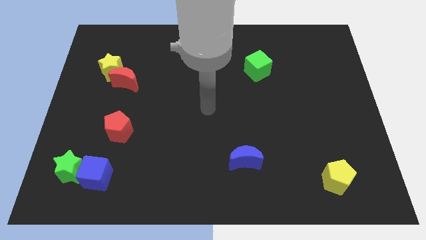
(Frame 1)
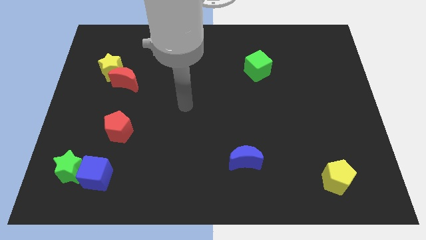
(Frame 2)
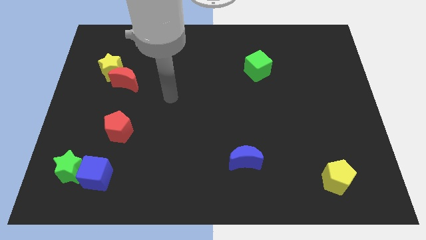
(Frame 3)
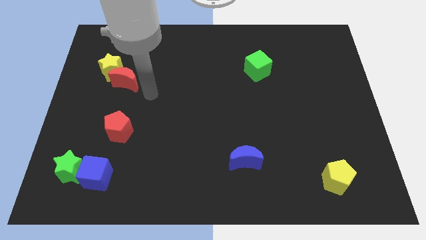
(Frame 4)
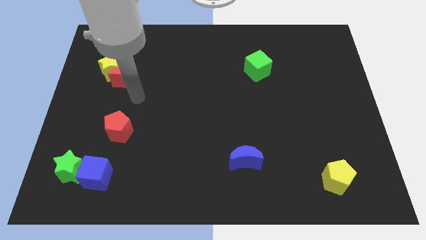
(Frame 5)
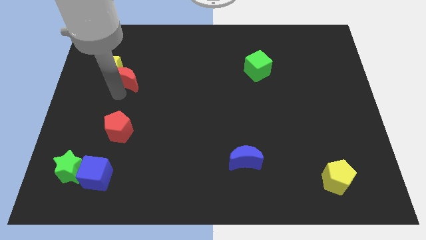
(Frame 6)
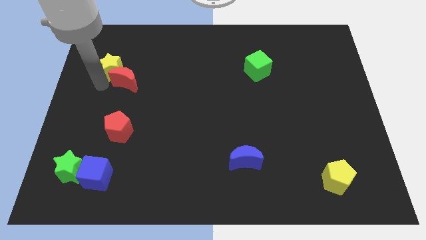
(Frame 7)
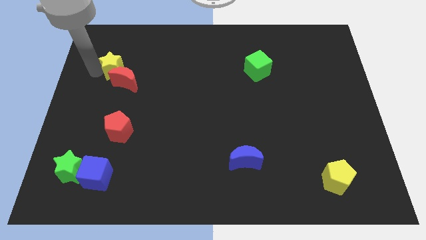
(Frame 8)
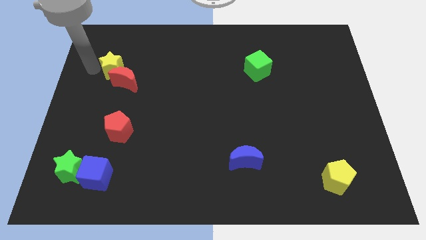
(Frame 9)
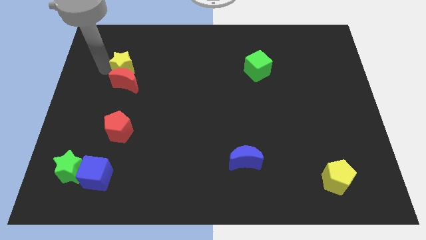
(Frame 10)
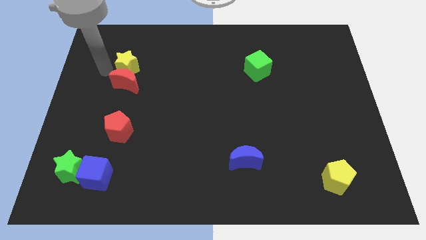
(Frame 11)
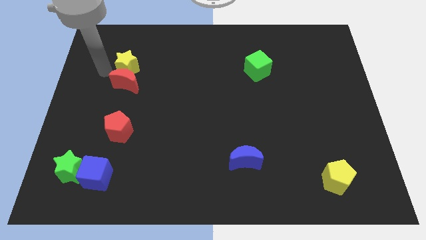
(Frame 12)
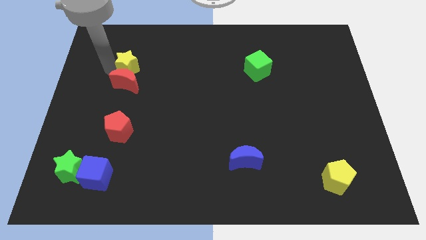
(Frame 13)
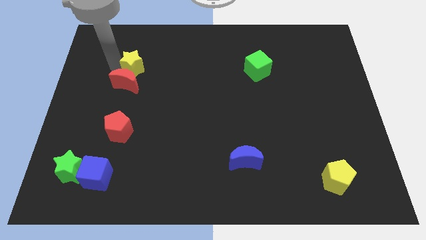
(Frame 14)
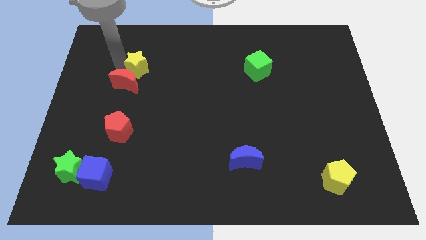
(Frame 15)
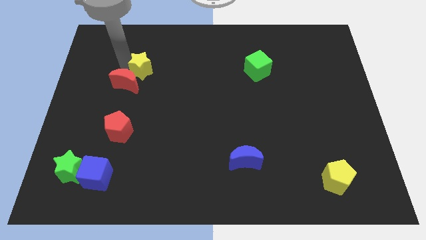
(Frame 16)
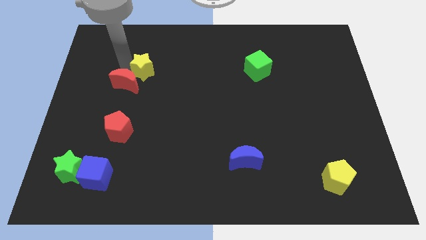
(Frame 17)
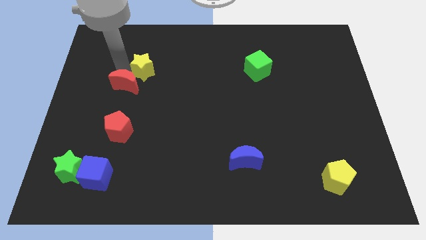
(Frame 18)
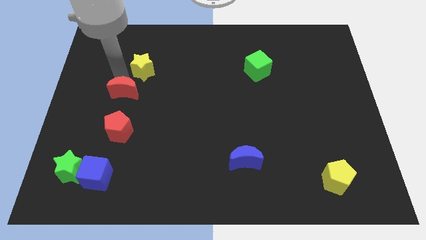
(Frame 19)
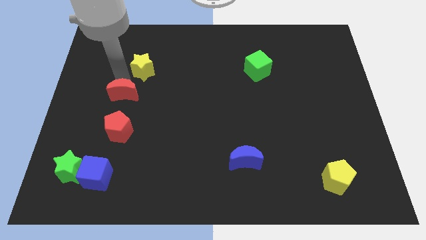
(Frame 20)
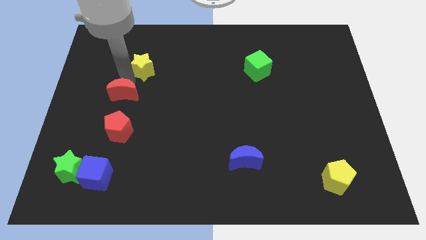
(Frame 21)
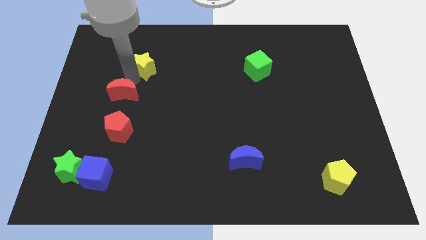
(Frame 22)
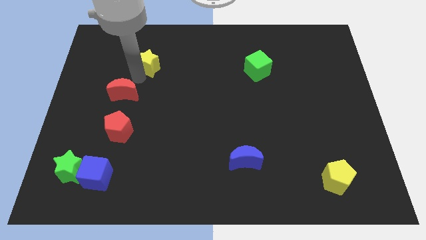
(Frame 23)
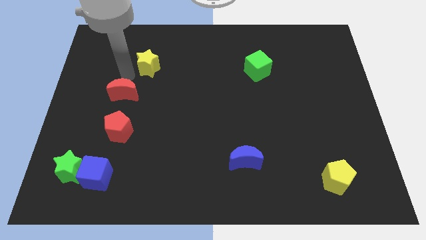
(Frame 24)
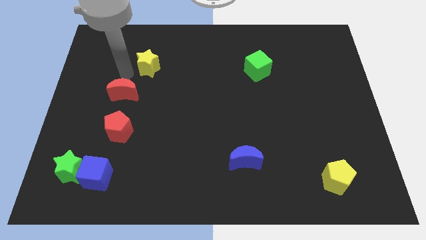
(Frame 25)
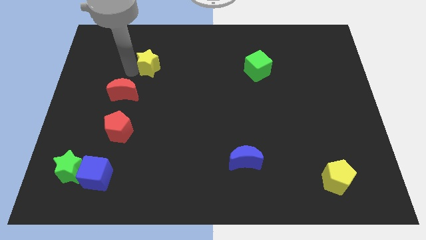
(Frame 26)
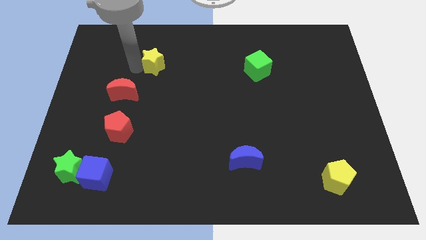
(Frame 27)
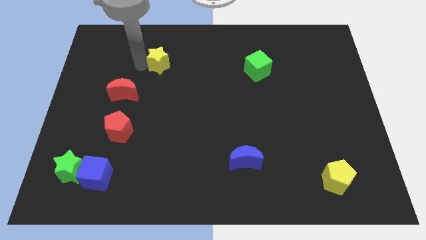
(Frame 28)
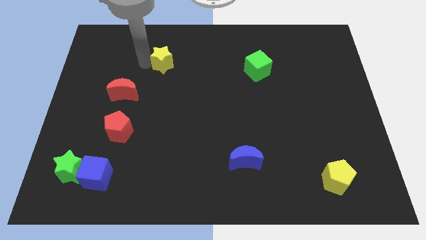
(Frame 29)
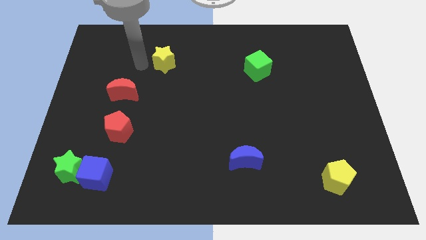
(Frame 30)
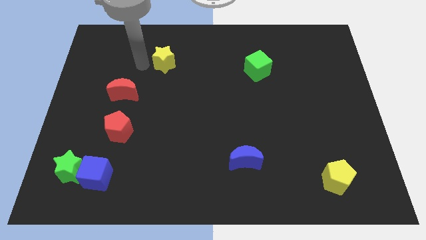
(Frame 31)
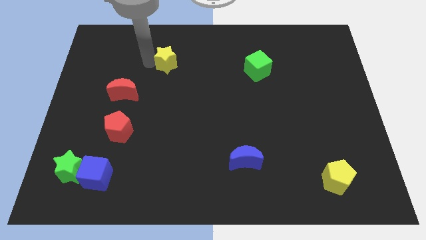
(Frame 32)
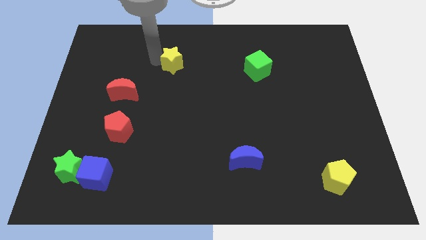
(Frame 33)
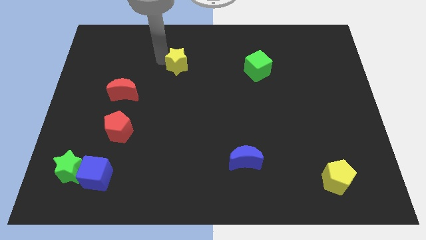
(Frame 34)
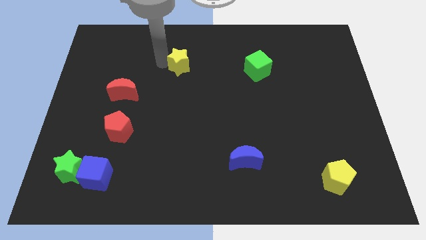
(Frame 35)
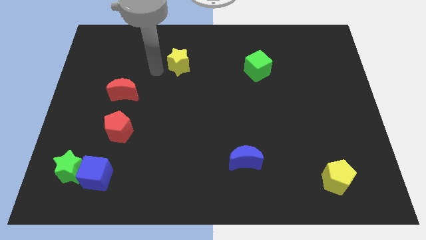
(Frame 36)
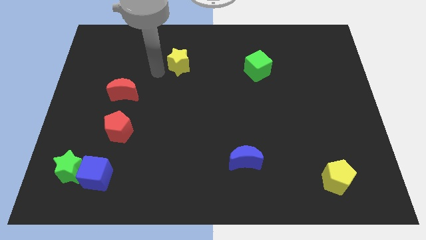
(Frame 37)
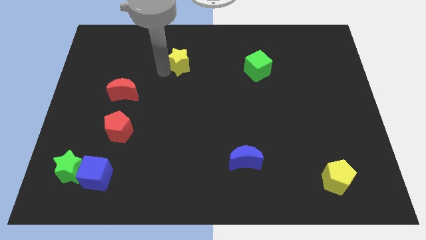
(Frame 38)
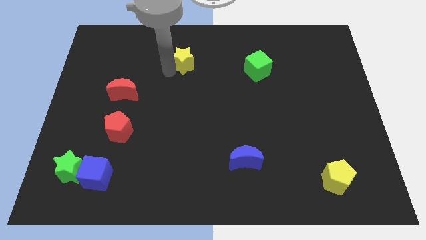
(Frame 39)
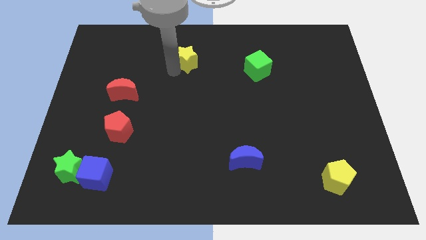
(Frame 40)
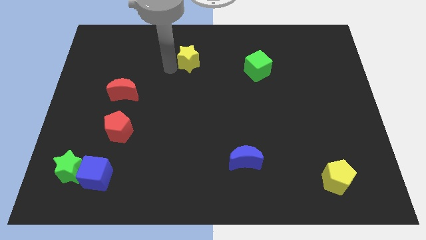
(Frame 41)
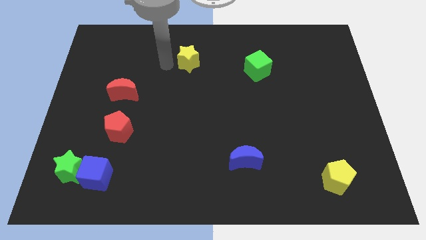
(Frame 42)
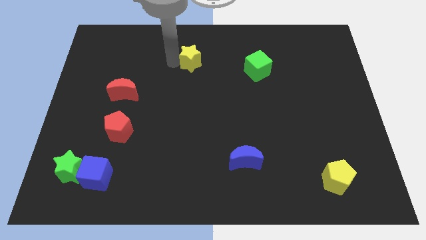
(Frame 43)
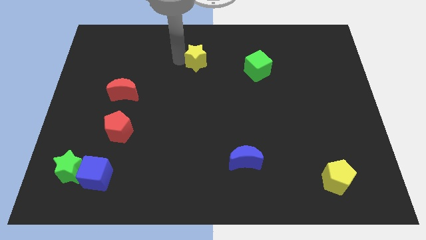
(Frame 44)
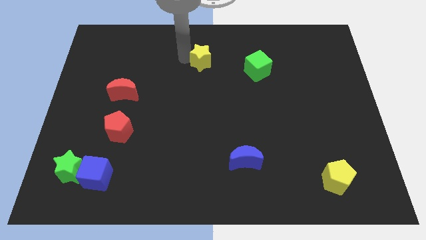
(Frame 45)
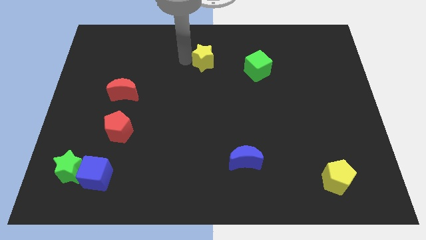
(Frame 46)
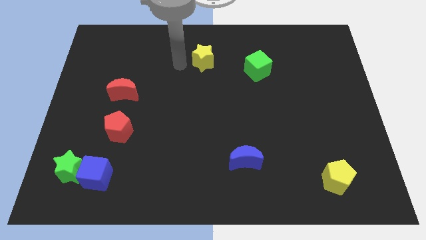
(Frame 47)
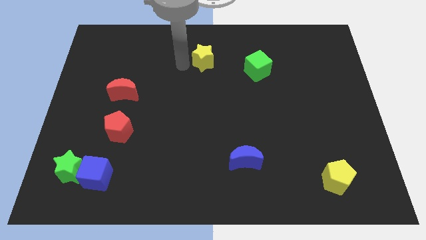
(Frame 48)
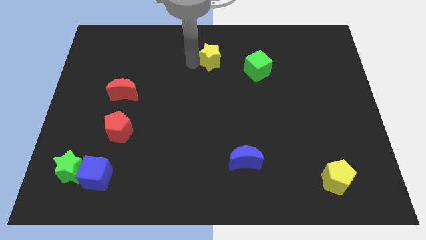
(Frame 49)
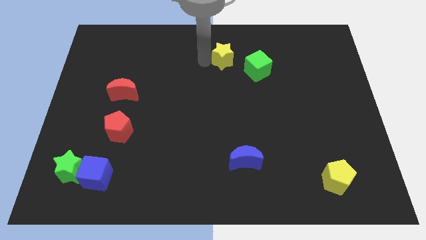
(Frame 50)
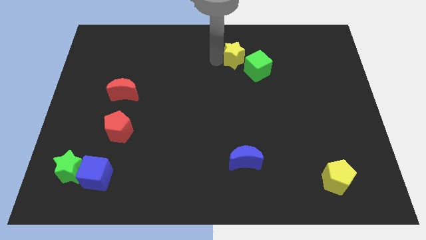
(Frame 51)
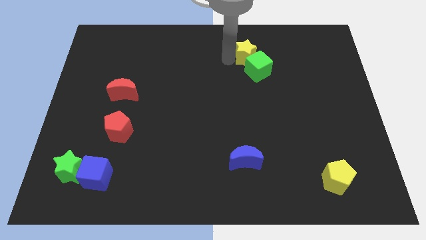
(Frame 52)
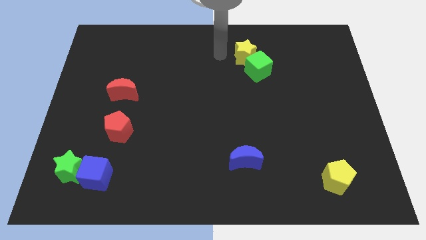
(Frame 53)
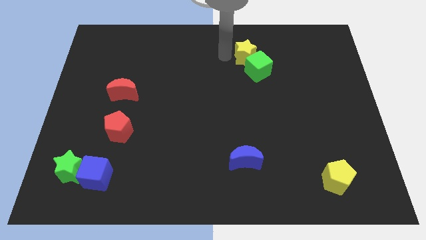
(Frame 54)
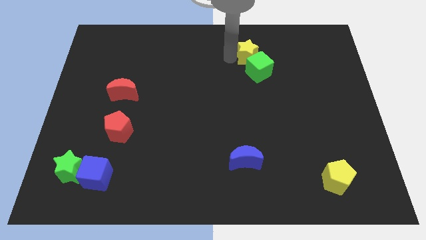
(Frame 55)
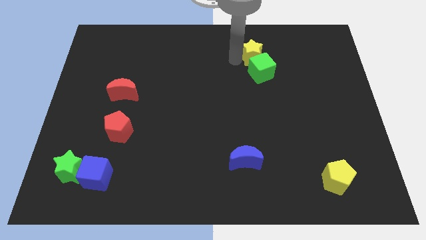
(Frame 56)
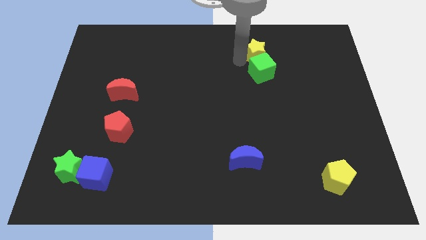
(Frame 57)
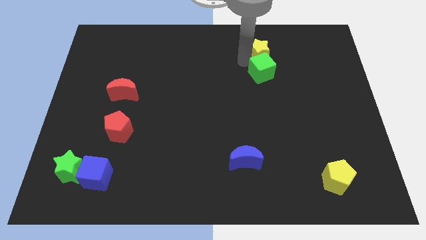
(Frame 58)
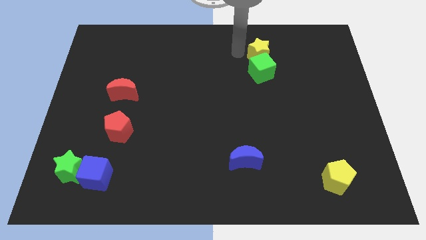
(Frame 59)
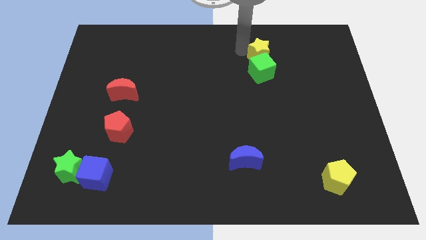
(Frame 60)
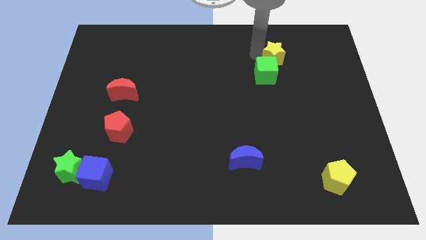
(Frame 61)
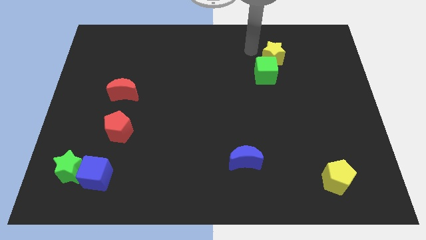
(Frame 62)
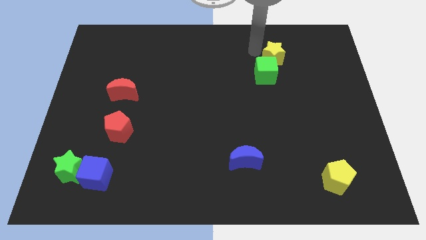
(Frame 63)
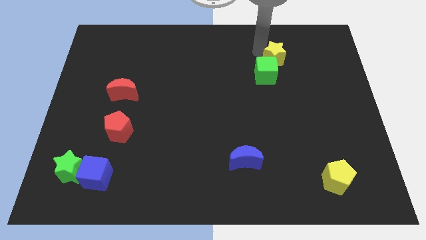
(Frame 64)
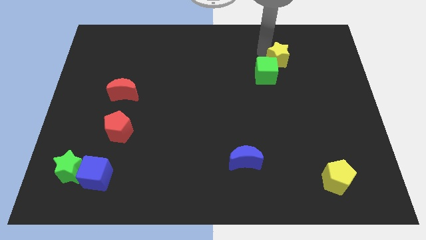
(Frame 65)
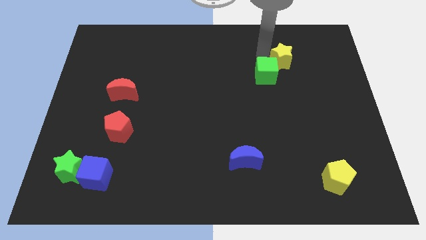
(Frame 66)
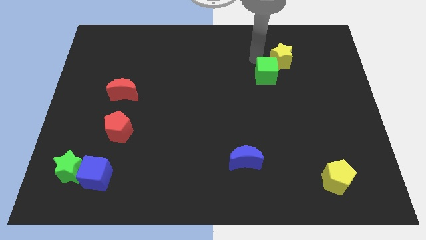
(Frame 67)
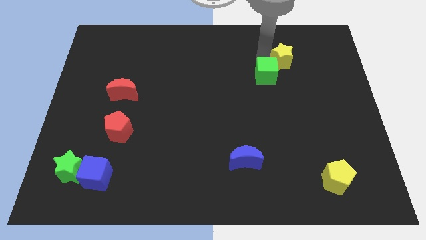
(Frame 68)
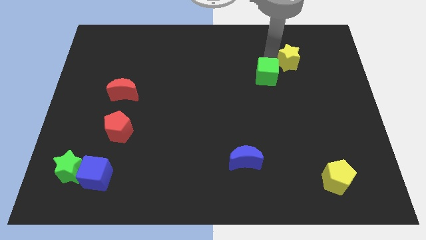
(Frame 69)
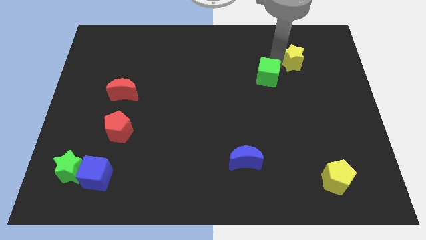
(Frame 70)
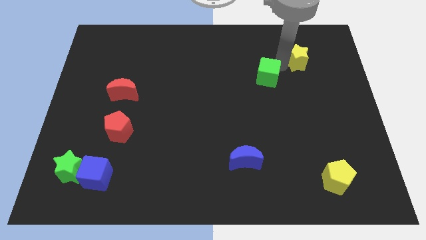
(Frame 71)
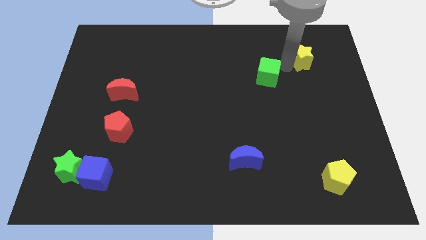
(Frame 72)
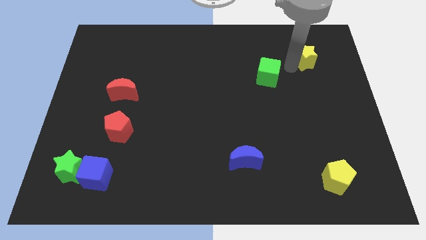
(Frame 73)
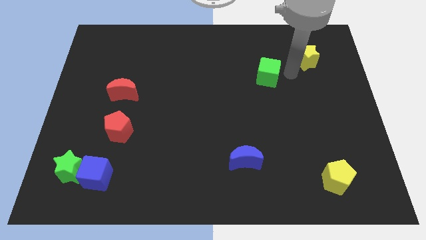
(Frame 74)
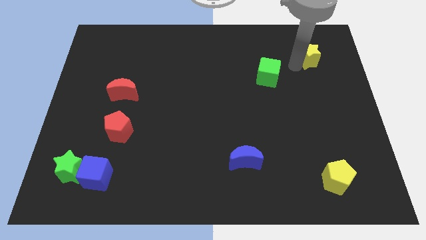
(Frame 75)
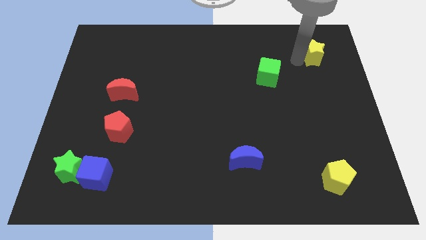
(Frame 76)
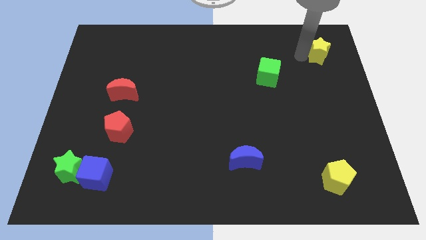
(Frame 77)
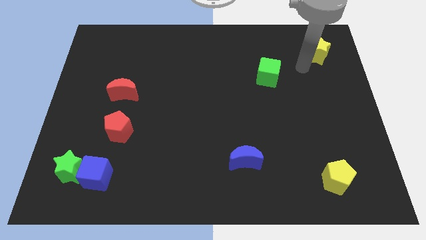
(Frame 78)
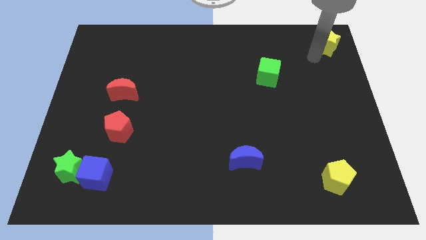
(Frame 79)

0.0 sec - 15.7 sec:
put the yellow star to the upper right corner
